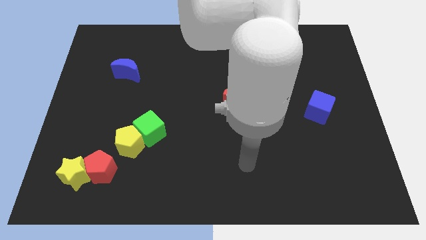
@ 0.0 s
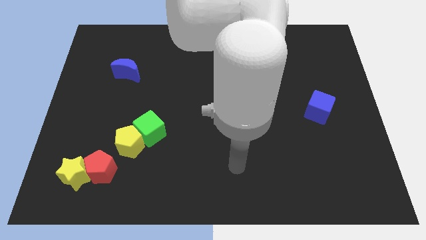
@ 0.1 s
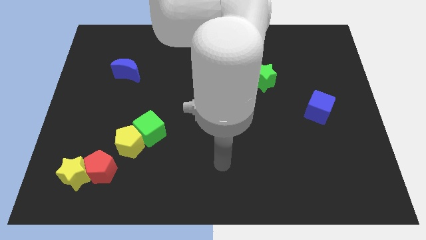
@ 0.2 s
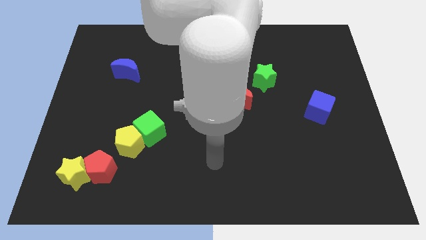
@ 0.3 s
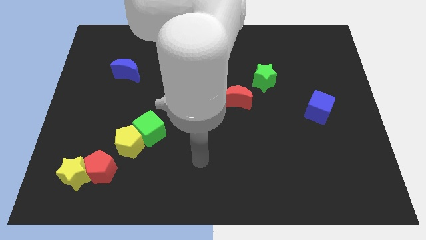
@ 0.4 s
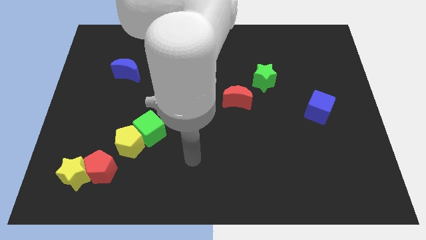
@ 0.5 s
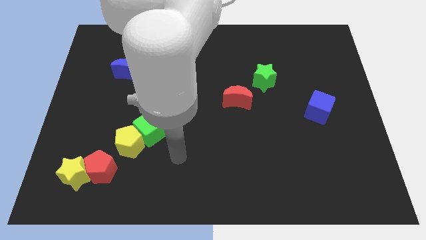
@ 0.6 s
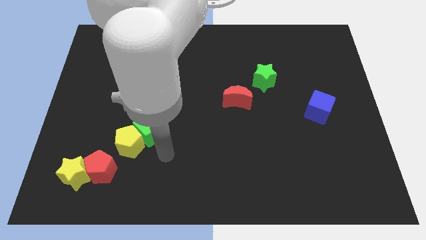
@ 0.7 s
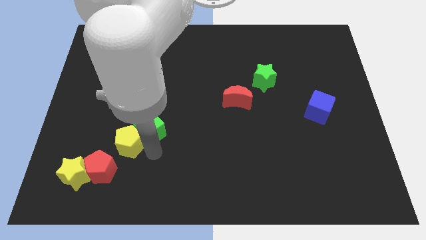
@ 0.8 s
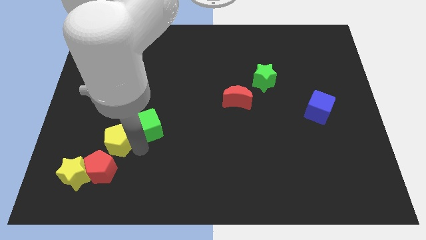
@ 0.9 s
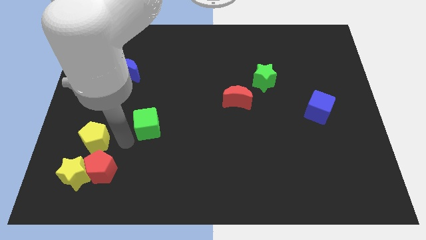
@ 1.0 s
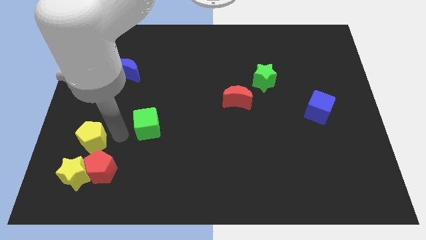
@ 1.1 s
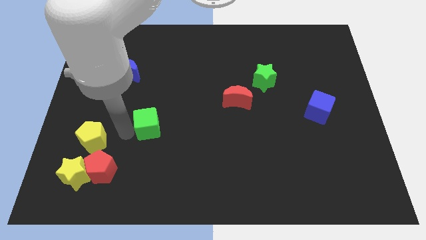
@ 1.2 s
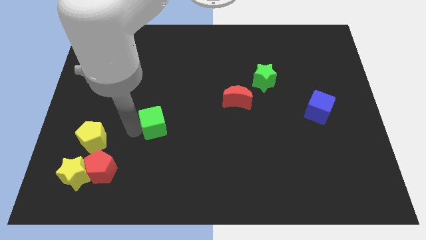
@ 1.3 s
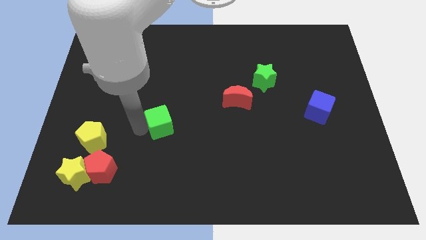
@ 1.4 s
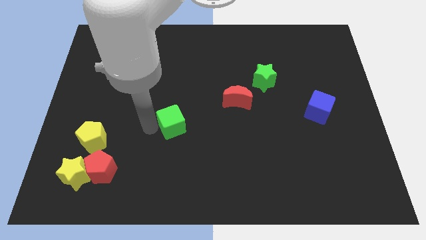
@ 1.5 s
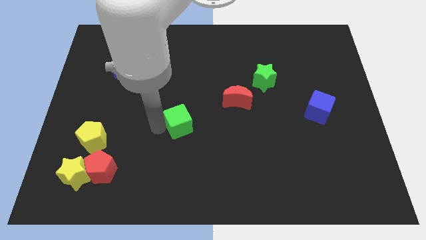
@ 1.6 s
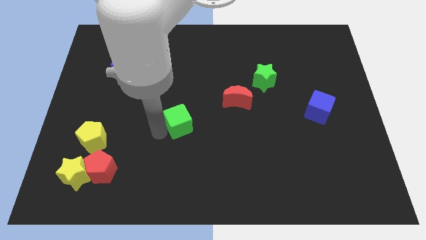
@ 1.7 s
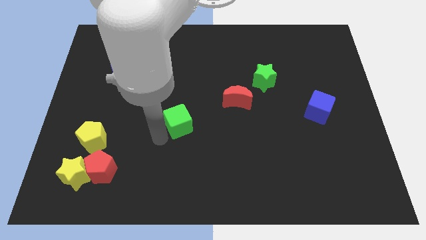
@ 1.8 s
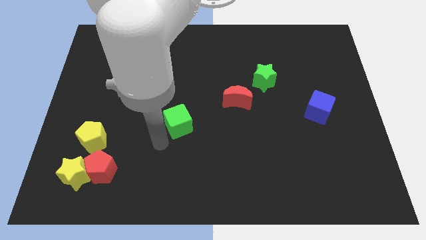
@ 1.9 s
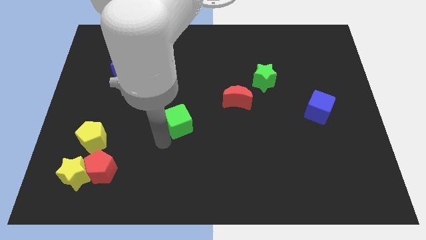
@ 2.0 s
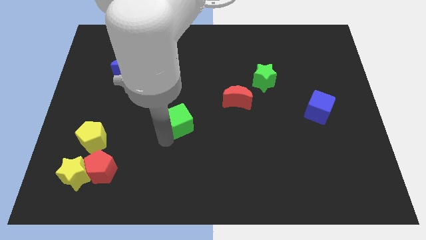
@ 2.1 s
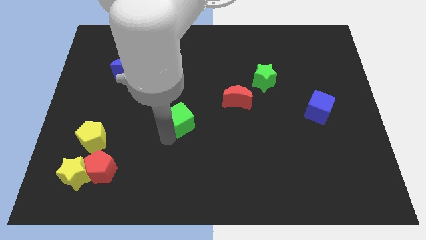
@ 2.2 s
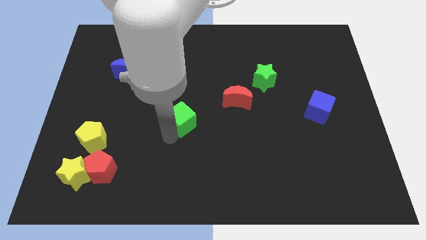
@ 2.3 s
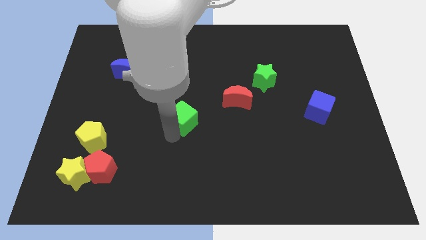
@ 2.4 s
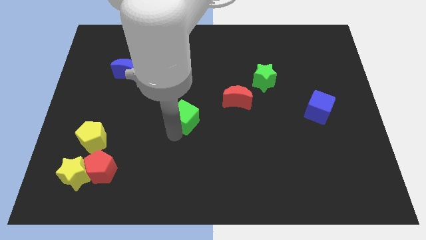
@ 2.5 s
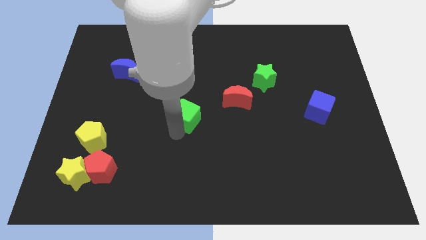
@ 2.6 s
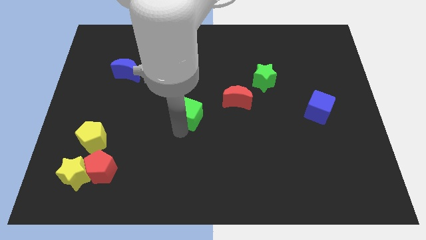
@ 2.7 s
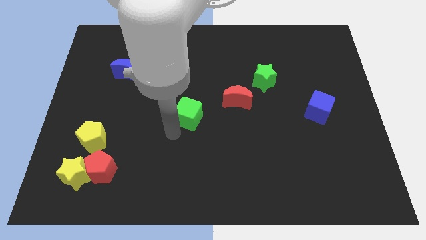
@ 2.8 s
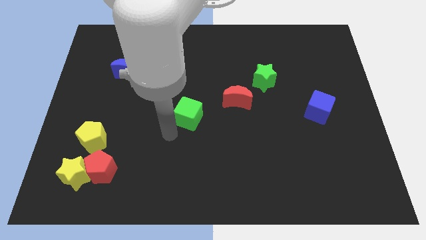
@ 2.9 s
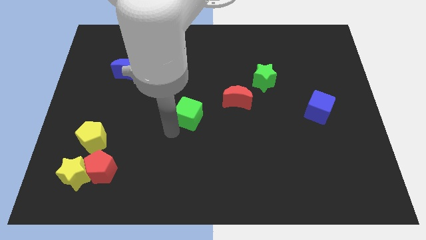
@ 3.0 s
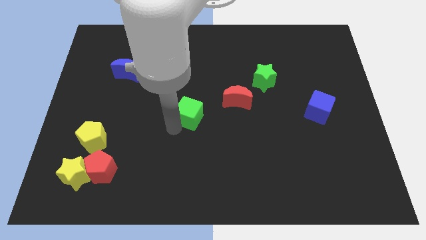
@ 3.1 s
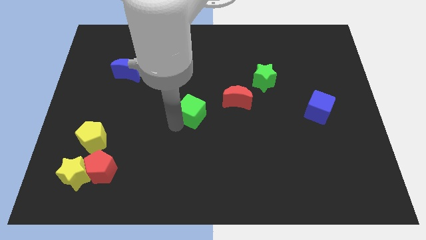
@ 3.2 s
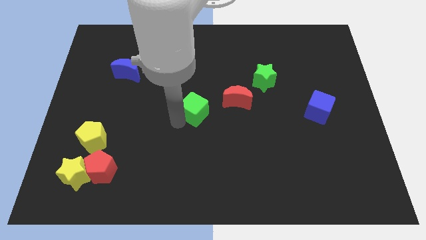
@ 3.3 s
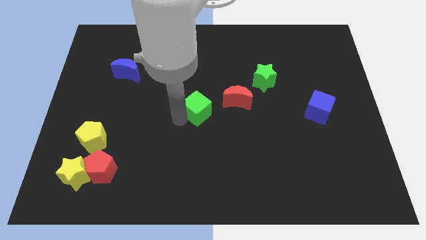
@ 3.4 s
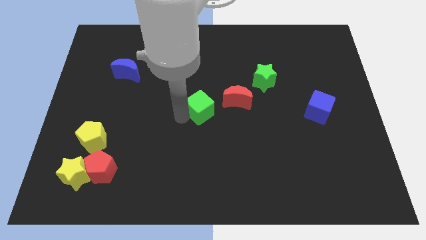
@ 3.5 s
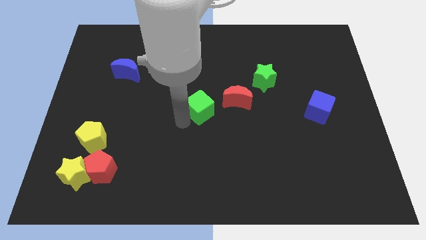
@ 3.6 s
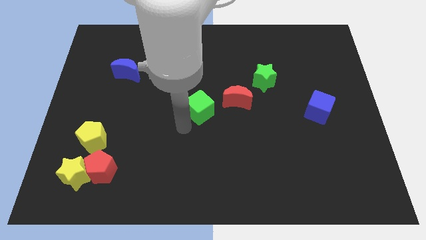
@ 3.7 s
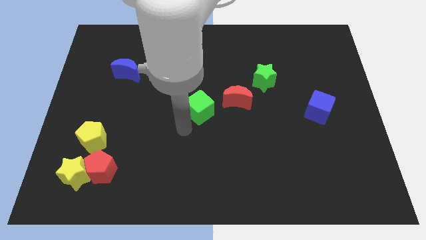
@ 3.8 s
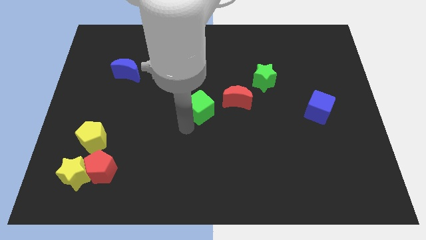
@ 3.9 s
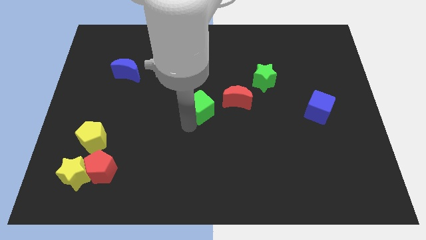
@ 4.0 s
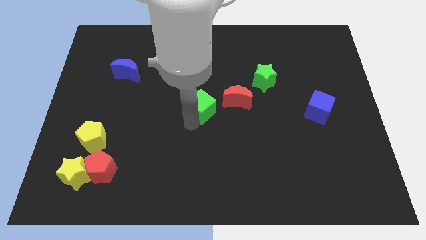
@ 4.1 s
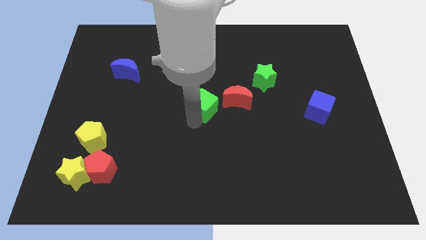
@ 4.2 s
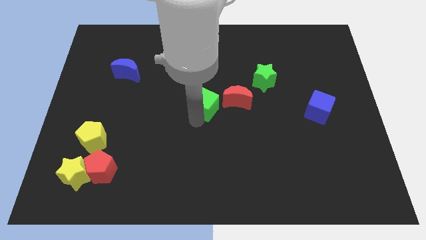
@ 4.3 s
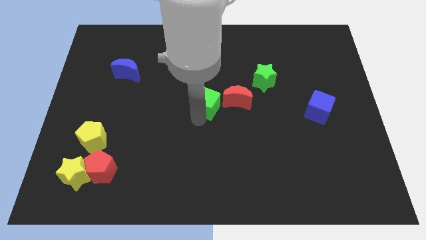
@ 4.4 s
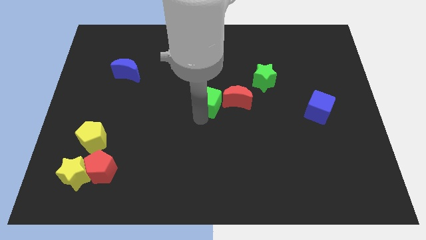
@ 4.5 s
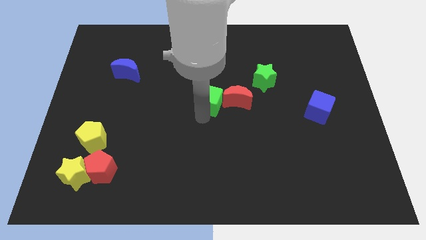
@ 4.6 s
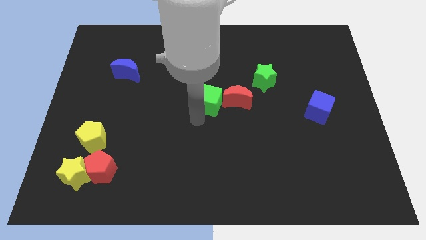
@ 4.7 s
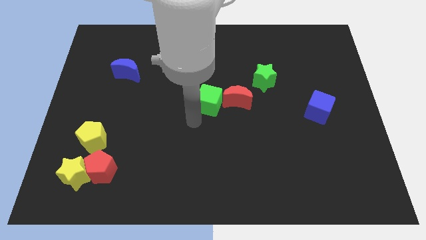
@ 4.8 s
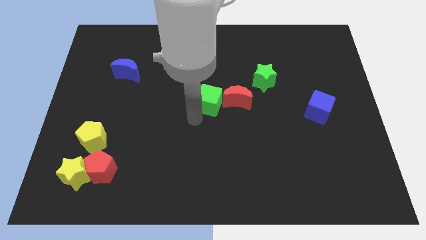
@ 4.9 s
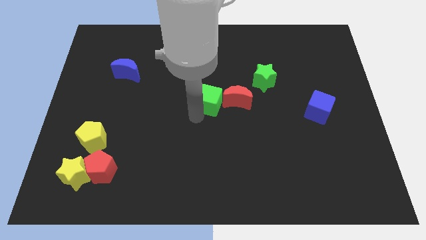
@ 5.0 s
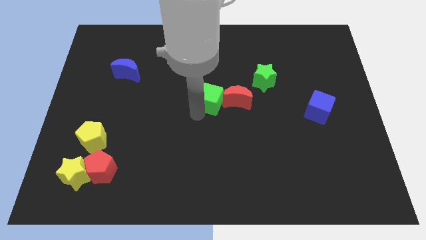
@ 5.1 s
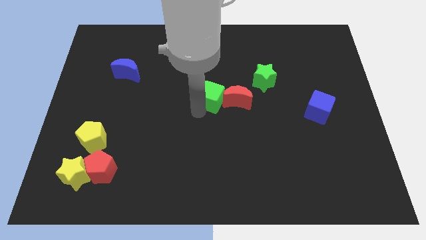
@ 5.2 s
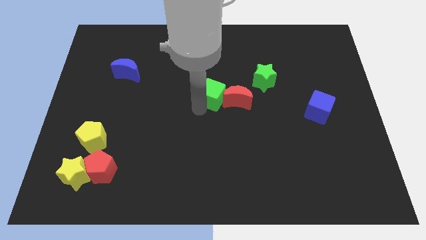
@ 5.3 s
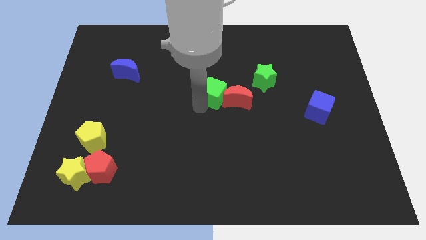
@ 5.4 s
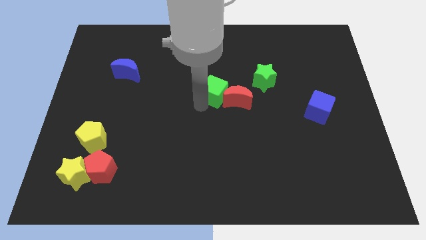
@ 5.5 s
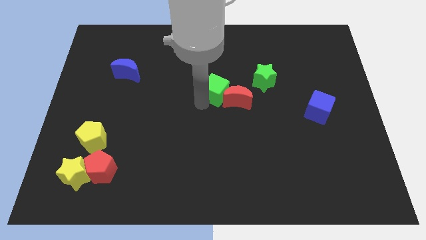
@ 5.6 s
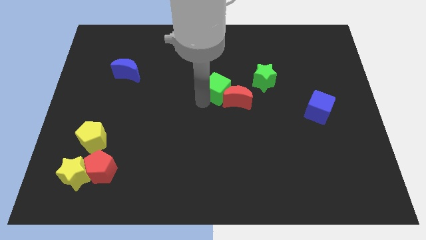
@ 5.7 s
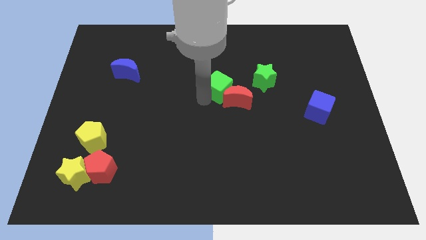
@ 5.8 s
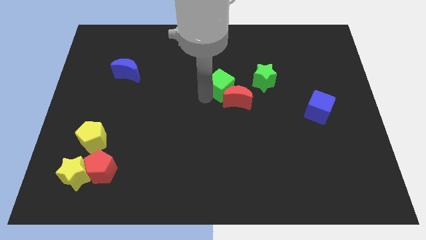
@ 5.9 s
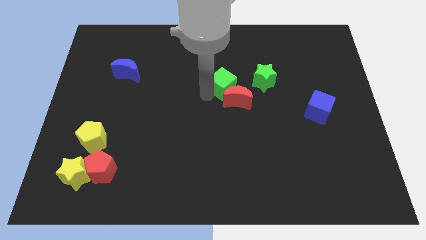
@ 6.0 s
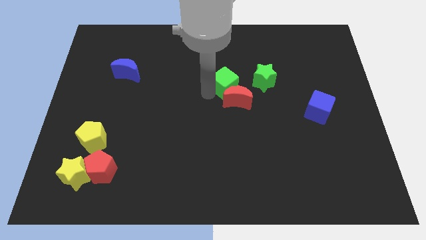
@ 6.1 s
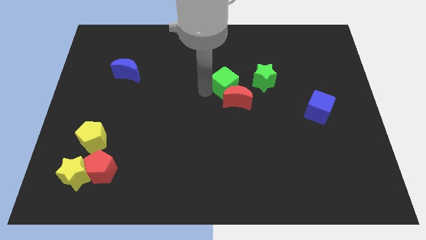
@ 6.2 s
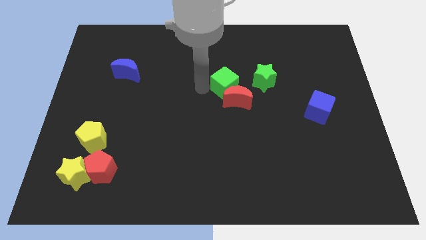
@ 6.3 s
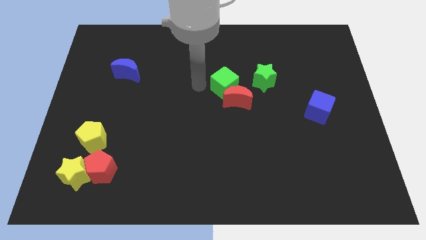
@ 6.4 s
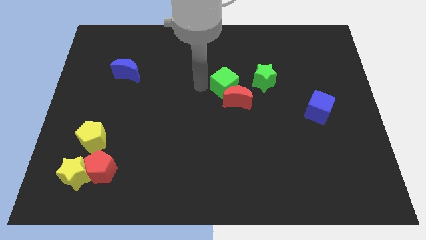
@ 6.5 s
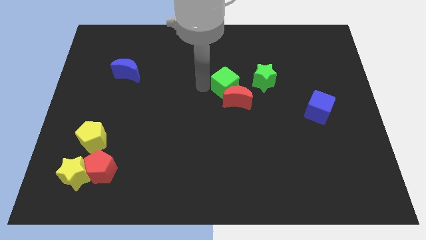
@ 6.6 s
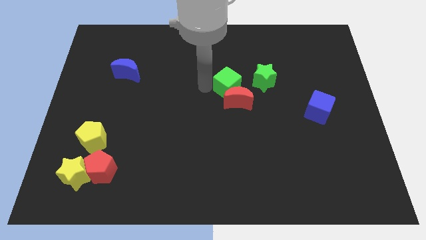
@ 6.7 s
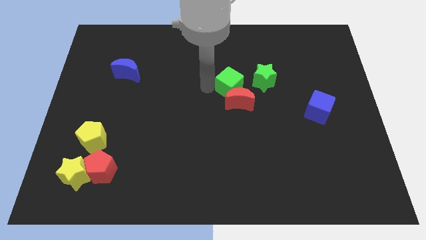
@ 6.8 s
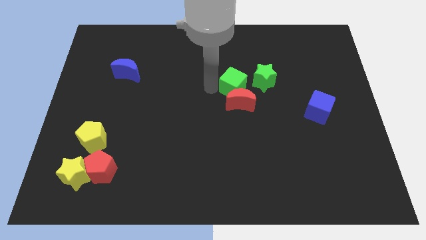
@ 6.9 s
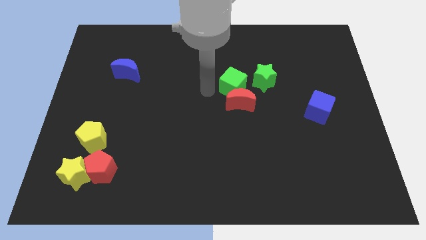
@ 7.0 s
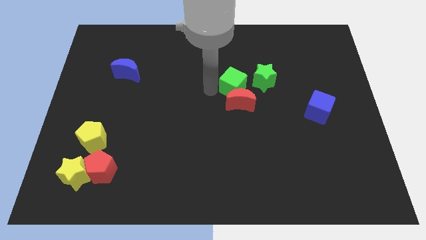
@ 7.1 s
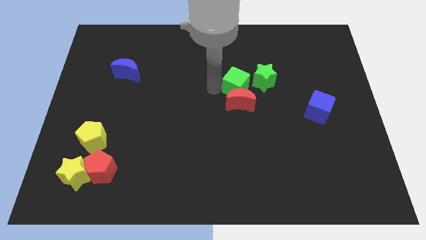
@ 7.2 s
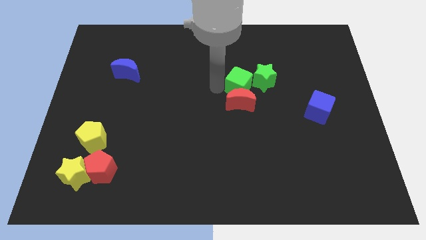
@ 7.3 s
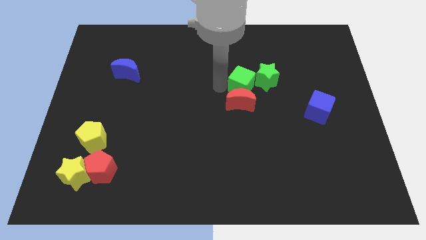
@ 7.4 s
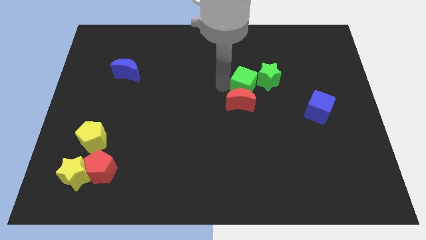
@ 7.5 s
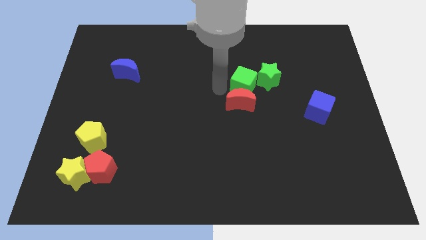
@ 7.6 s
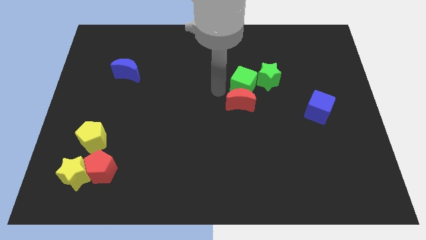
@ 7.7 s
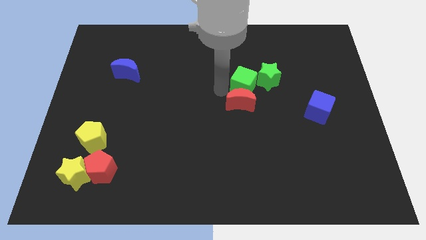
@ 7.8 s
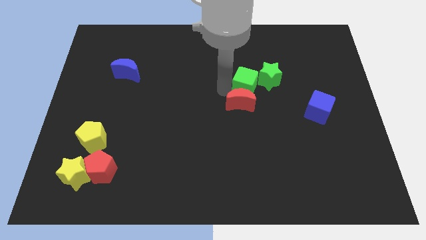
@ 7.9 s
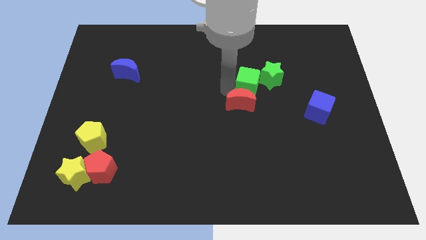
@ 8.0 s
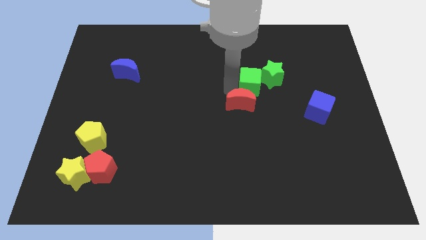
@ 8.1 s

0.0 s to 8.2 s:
slide the green cube towards the green star
